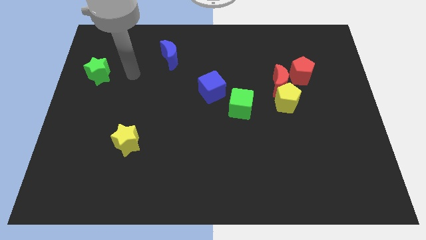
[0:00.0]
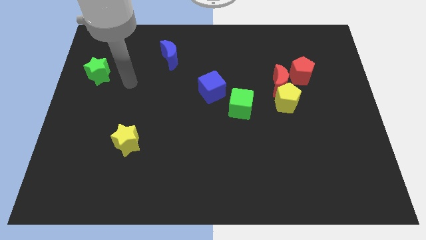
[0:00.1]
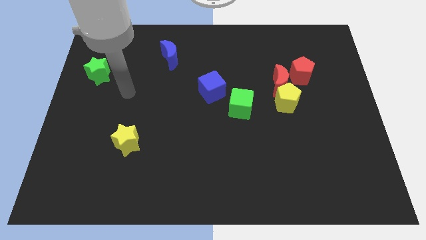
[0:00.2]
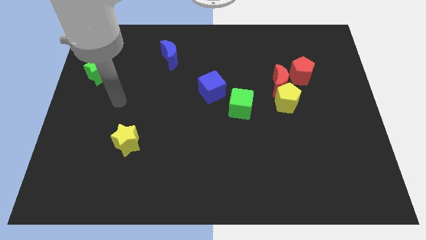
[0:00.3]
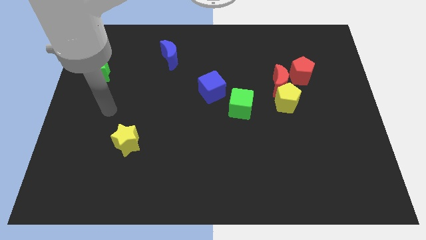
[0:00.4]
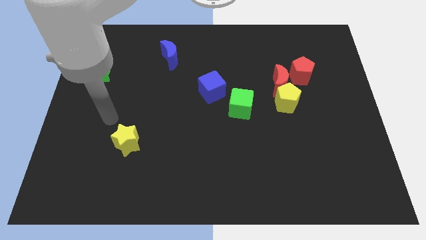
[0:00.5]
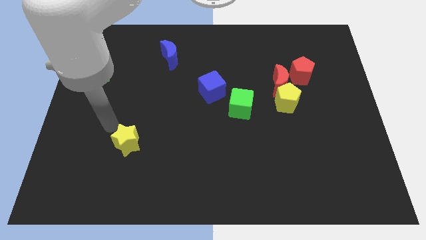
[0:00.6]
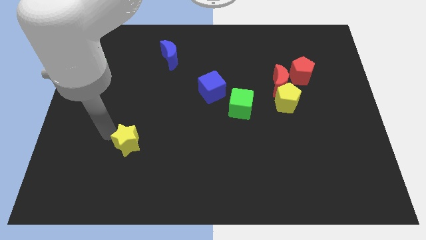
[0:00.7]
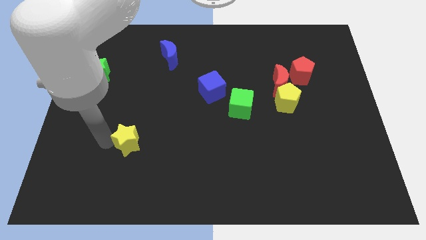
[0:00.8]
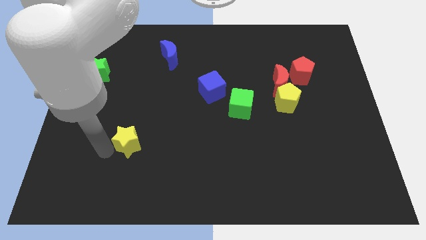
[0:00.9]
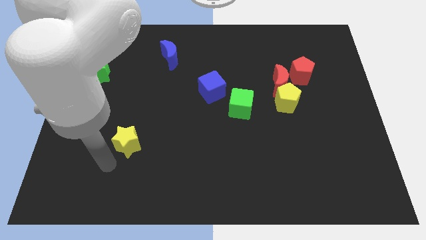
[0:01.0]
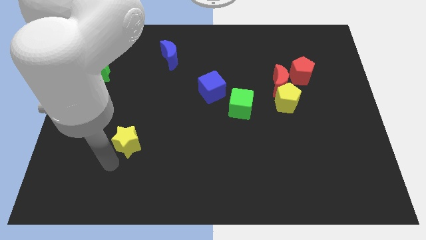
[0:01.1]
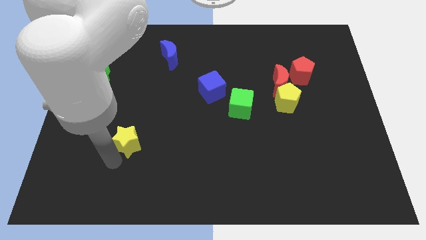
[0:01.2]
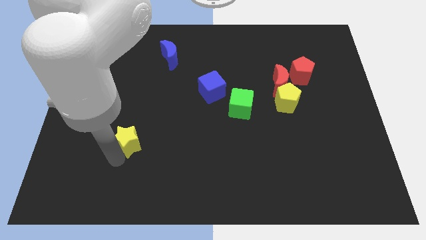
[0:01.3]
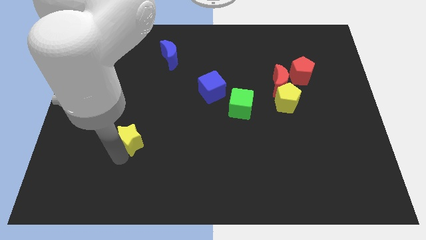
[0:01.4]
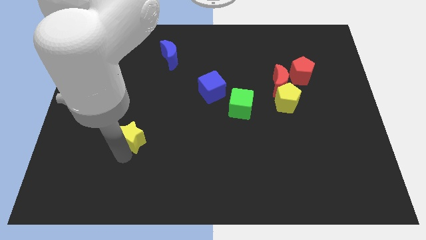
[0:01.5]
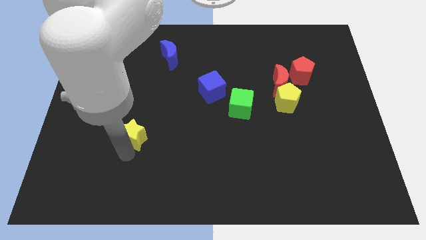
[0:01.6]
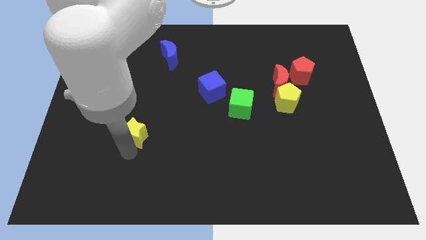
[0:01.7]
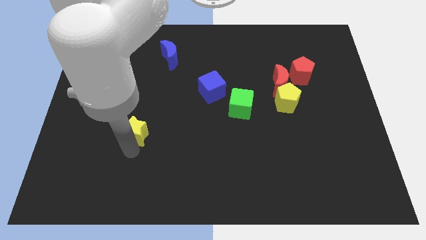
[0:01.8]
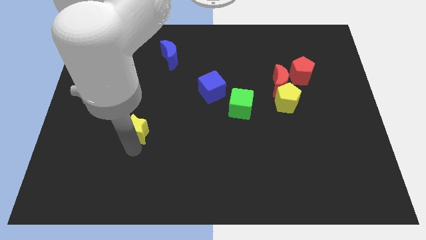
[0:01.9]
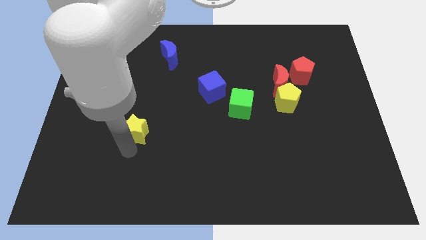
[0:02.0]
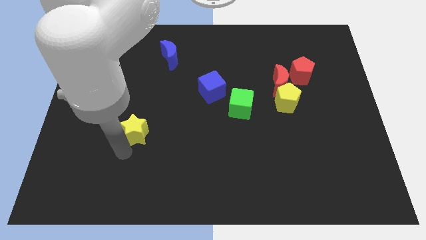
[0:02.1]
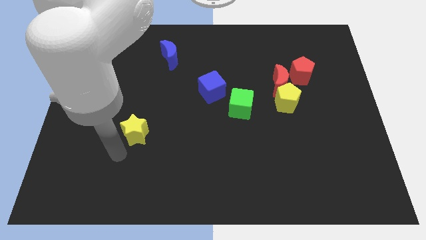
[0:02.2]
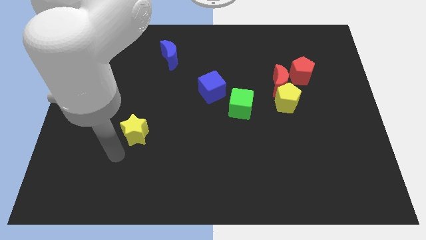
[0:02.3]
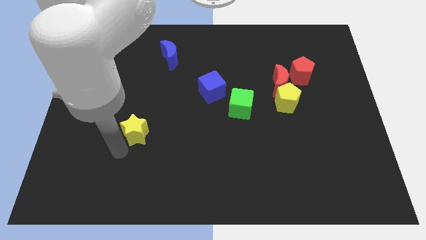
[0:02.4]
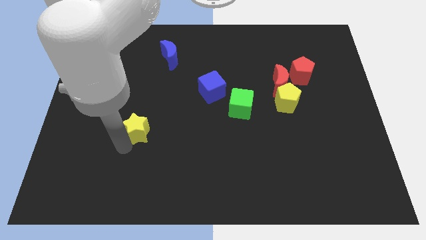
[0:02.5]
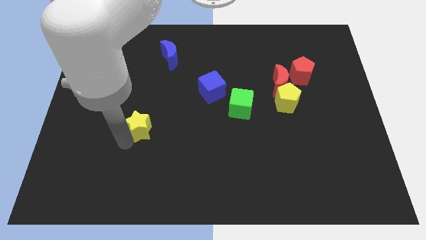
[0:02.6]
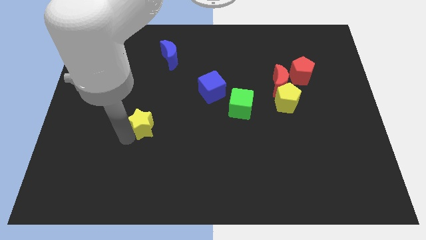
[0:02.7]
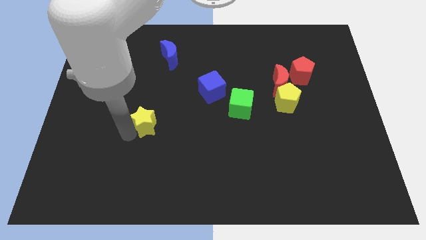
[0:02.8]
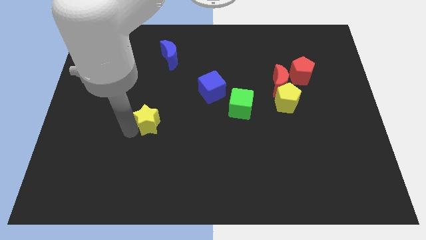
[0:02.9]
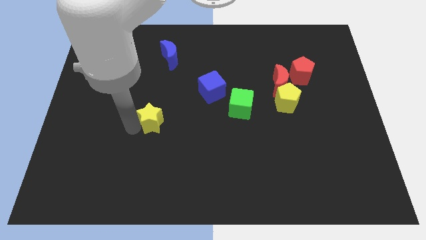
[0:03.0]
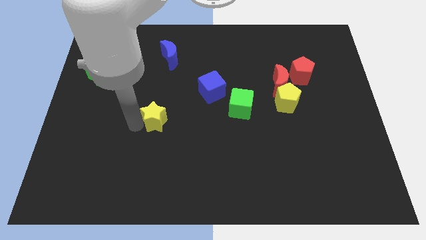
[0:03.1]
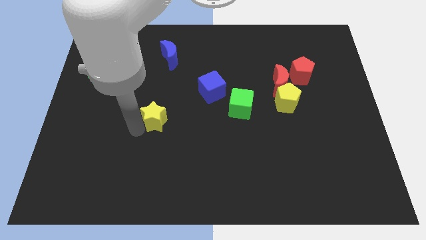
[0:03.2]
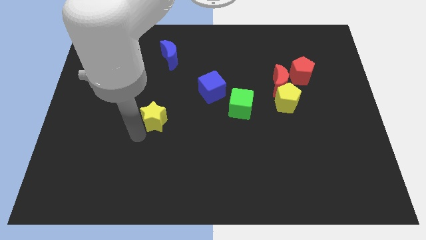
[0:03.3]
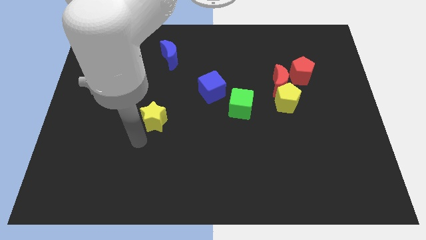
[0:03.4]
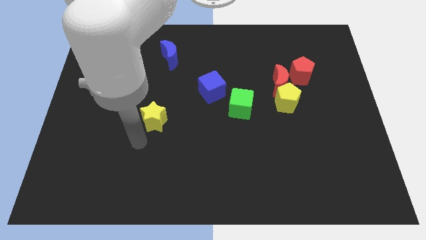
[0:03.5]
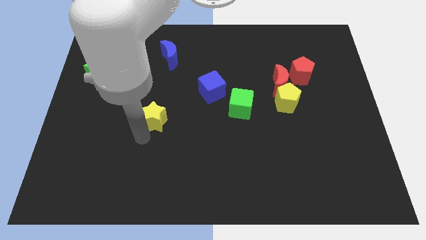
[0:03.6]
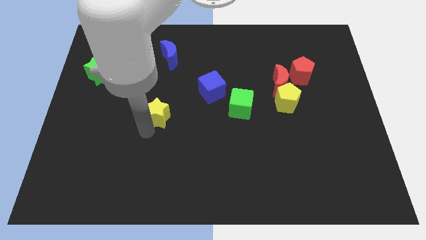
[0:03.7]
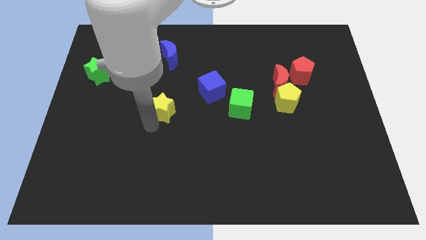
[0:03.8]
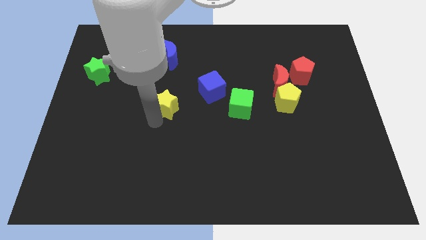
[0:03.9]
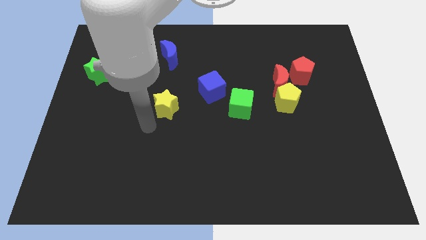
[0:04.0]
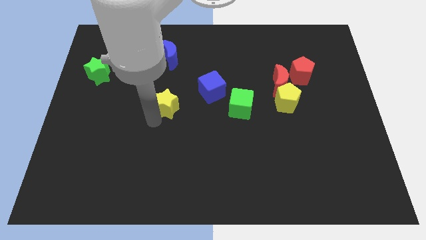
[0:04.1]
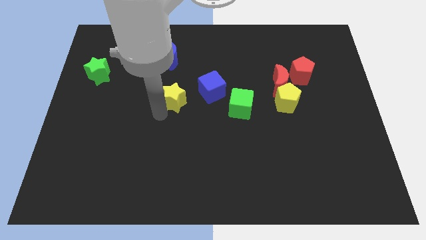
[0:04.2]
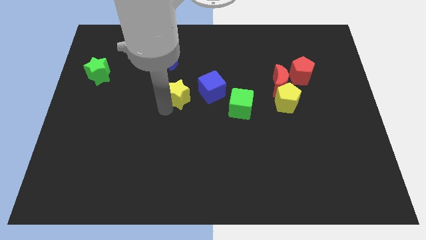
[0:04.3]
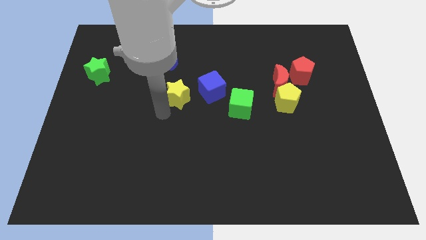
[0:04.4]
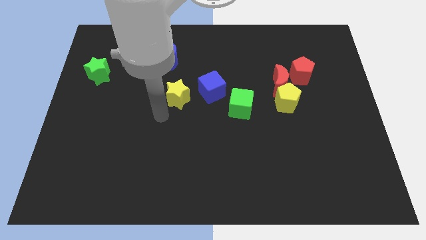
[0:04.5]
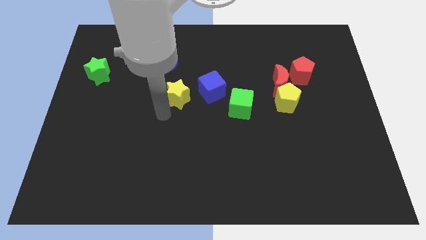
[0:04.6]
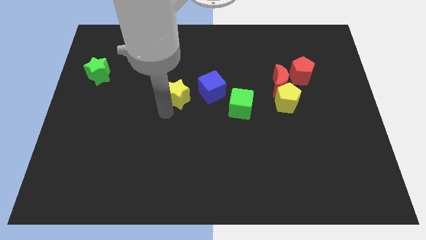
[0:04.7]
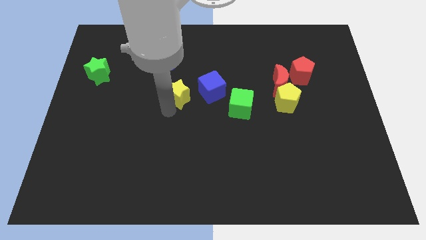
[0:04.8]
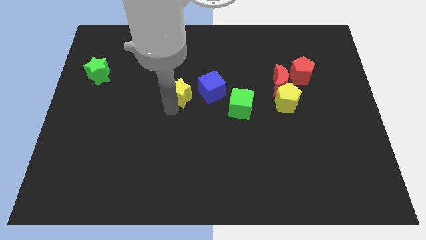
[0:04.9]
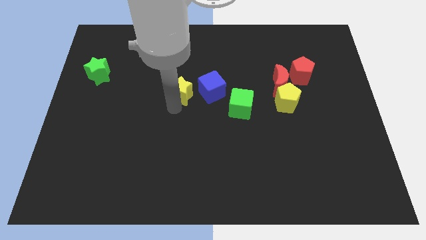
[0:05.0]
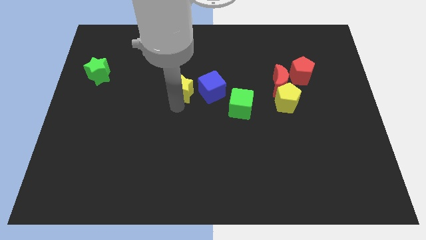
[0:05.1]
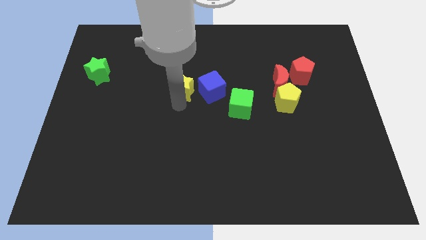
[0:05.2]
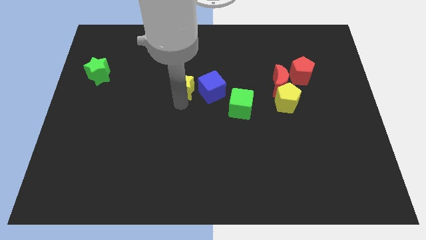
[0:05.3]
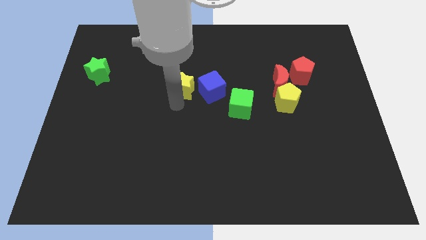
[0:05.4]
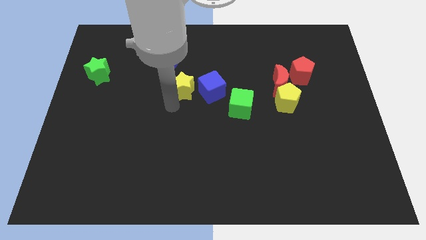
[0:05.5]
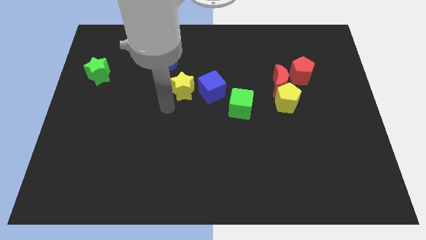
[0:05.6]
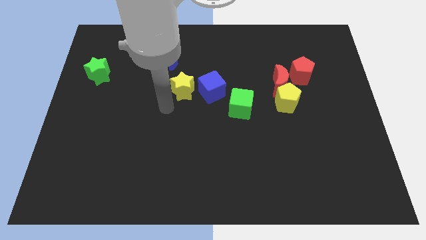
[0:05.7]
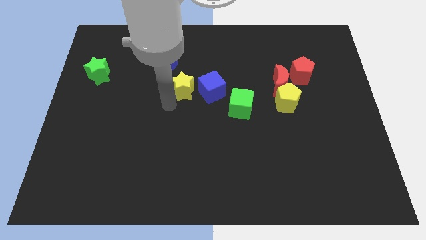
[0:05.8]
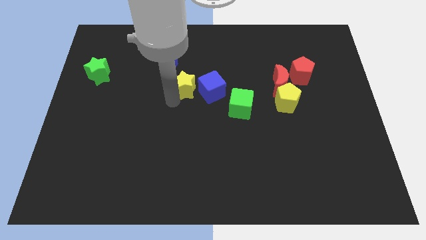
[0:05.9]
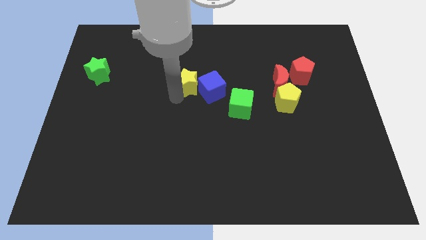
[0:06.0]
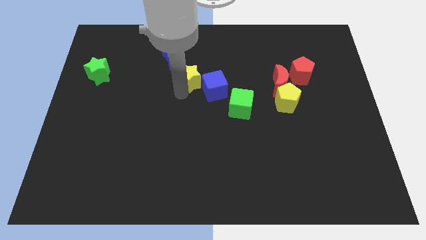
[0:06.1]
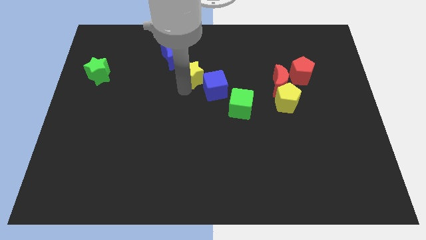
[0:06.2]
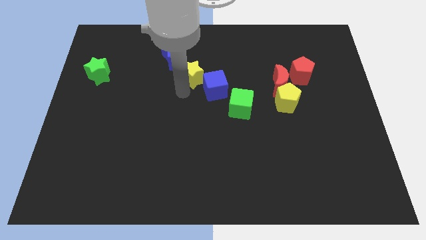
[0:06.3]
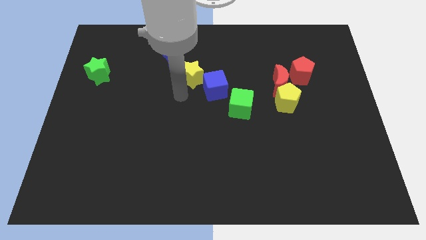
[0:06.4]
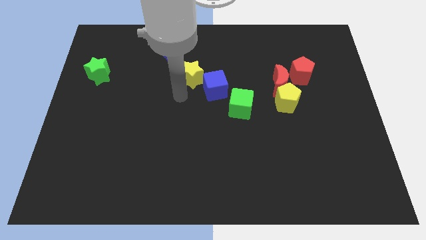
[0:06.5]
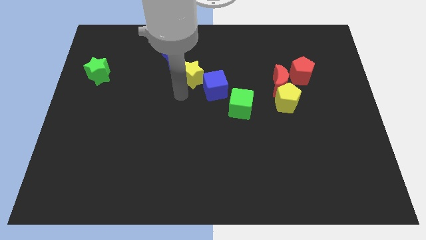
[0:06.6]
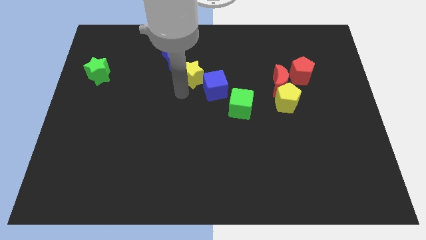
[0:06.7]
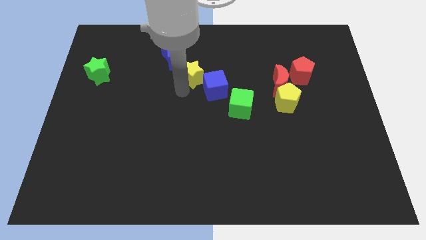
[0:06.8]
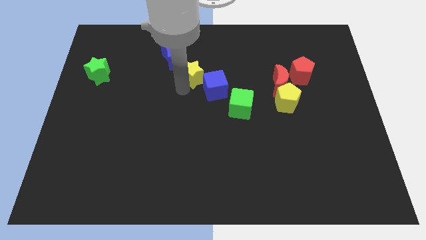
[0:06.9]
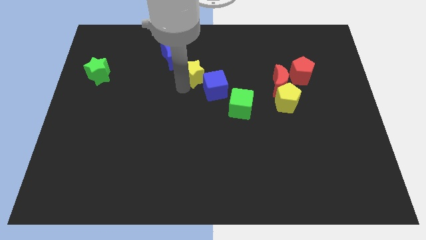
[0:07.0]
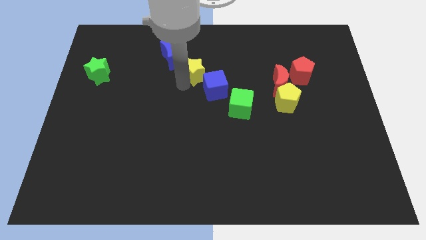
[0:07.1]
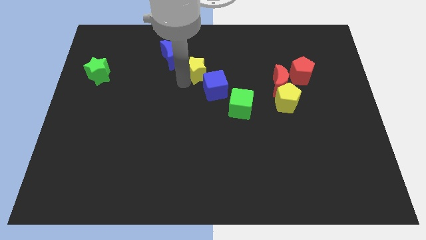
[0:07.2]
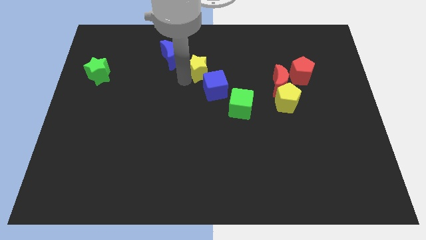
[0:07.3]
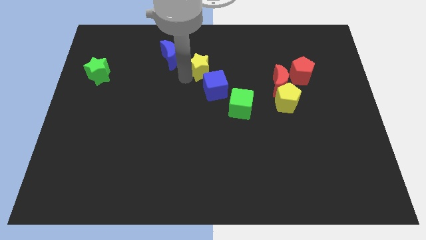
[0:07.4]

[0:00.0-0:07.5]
push the yellow star right of the blue moon

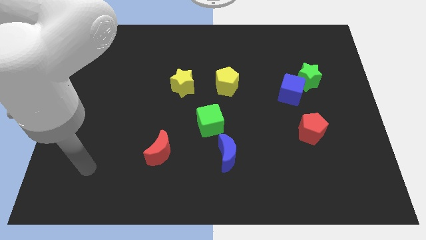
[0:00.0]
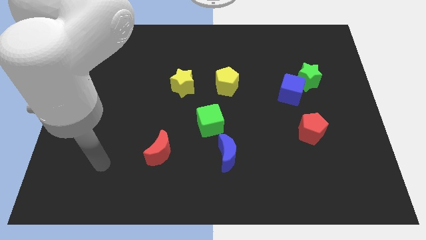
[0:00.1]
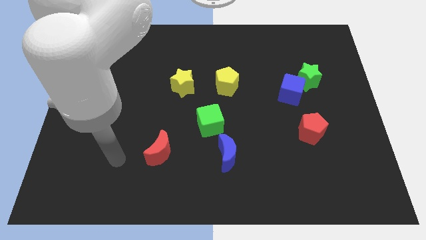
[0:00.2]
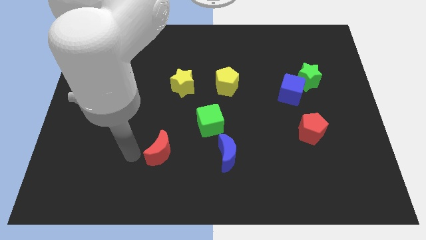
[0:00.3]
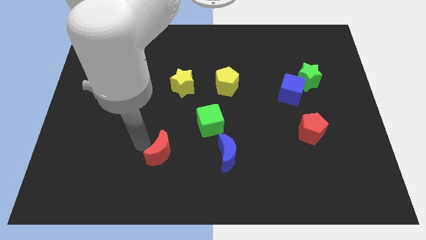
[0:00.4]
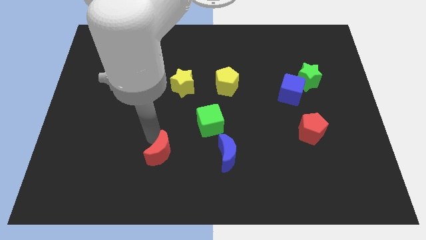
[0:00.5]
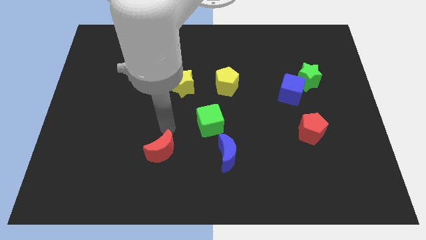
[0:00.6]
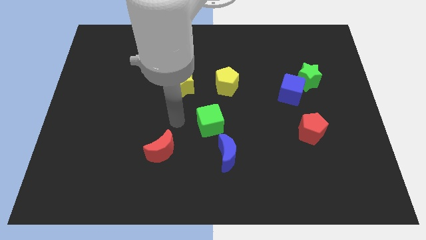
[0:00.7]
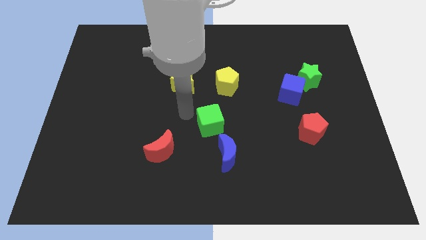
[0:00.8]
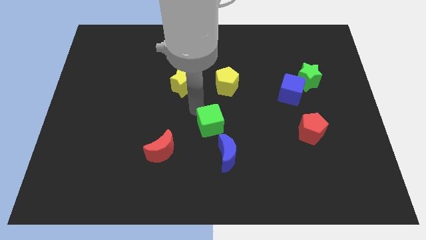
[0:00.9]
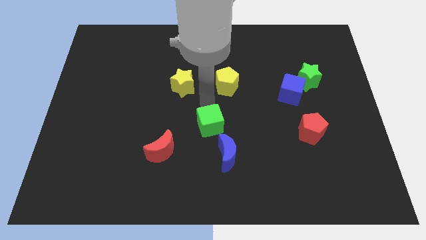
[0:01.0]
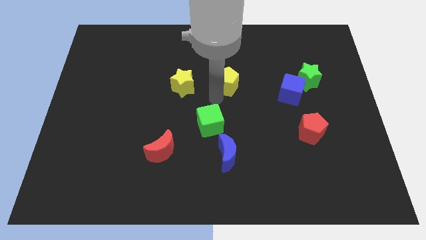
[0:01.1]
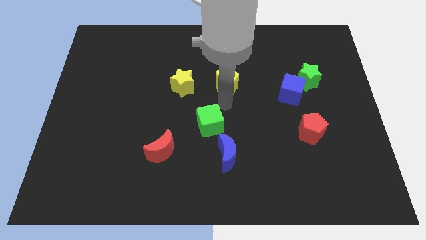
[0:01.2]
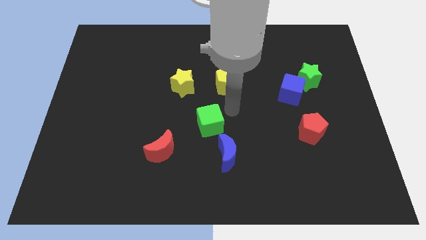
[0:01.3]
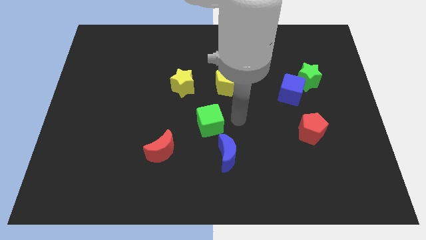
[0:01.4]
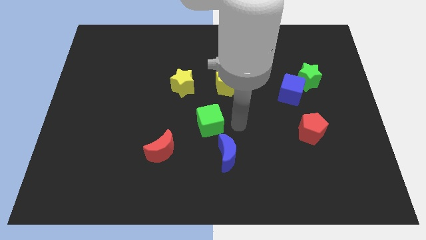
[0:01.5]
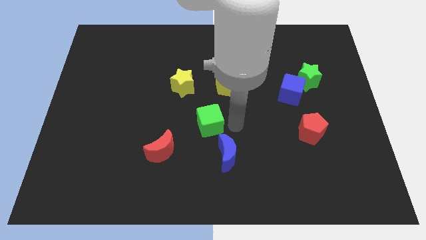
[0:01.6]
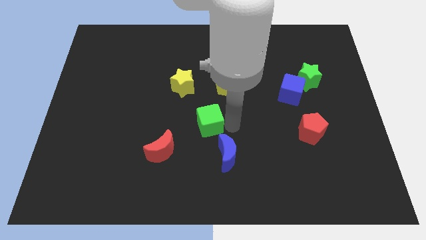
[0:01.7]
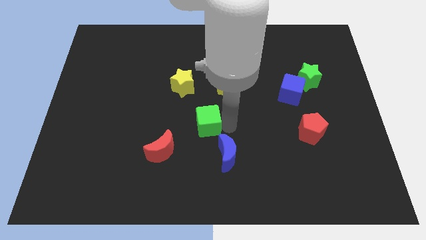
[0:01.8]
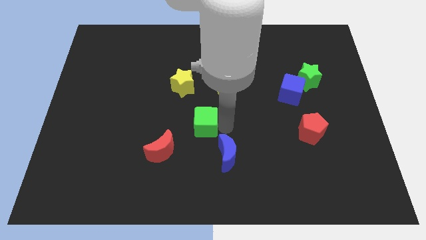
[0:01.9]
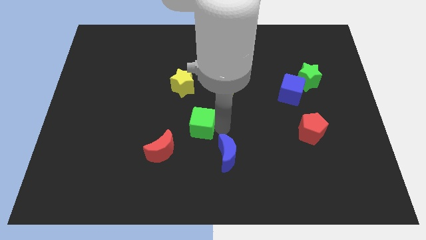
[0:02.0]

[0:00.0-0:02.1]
push the green cube below the yellow star
